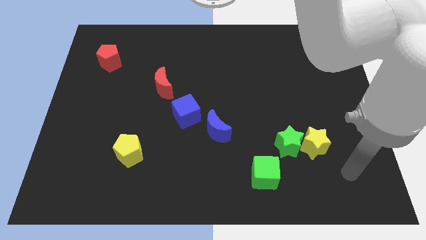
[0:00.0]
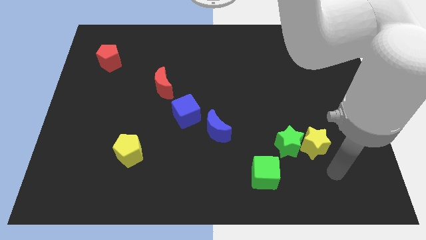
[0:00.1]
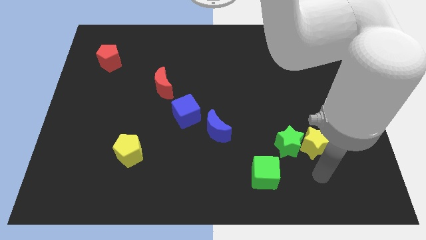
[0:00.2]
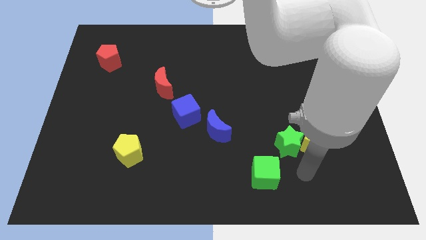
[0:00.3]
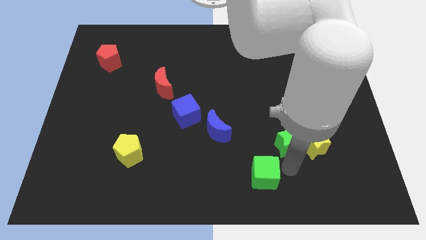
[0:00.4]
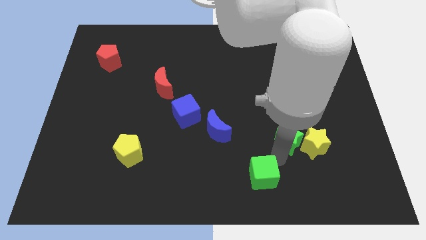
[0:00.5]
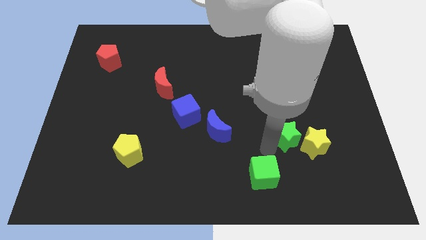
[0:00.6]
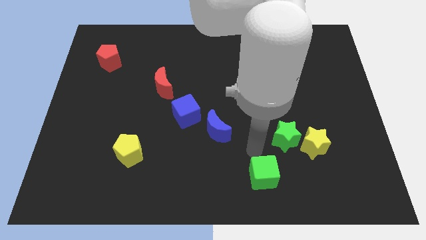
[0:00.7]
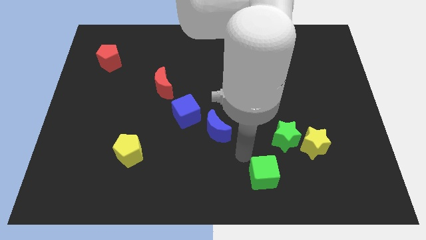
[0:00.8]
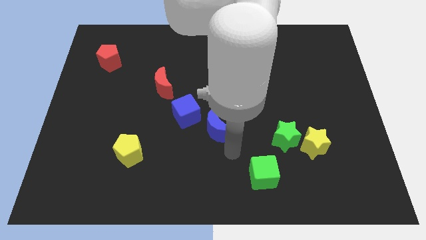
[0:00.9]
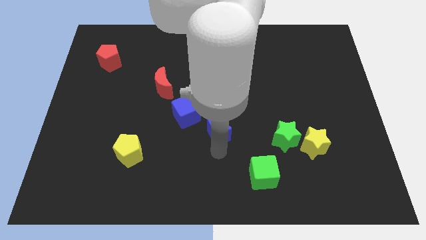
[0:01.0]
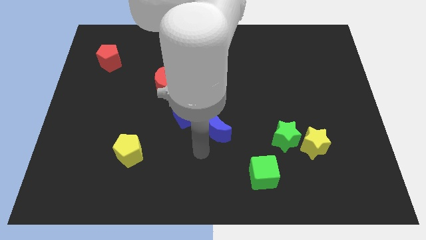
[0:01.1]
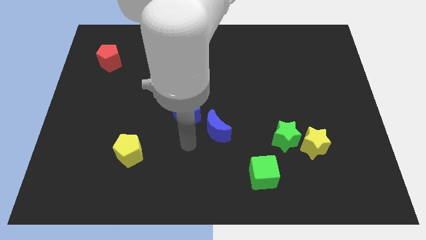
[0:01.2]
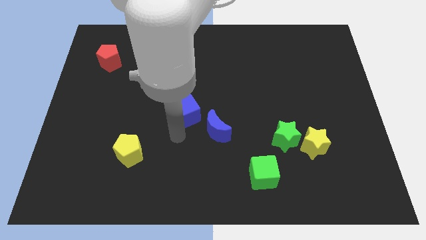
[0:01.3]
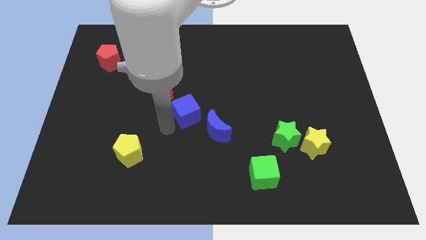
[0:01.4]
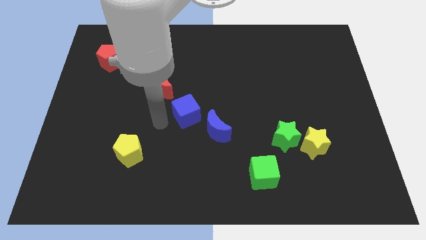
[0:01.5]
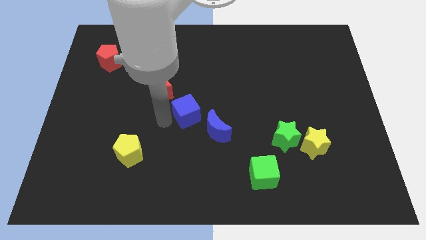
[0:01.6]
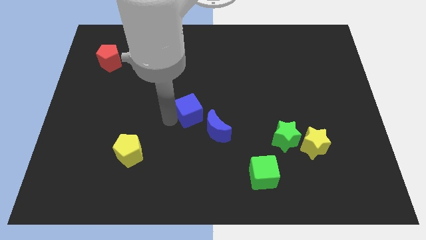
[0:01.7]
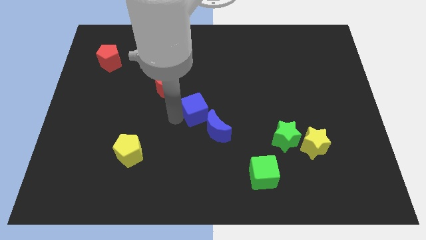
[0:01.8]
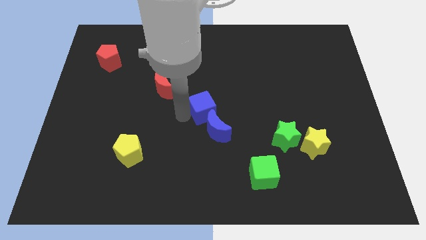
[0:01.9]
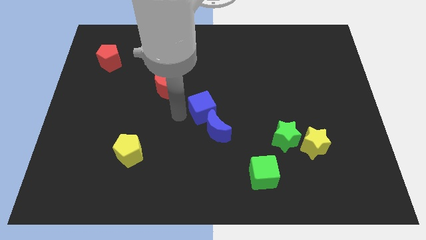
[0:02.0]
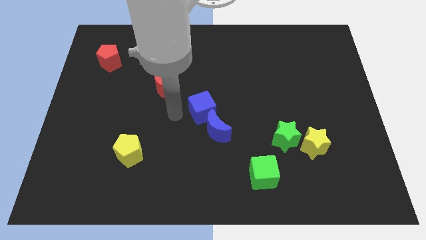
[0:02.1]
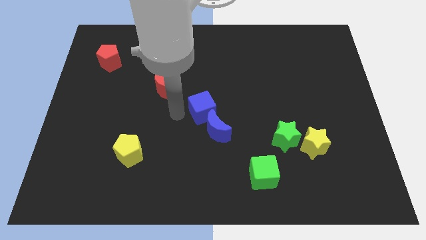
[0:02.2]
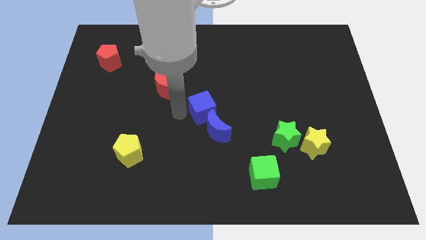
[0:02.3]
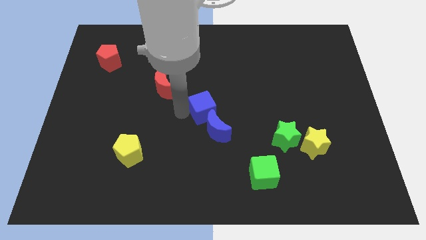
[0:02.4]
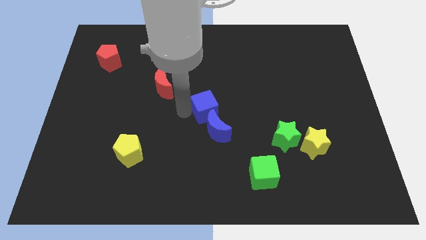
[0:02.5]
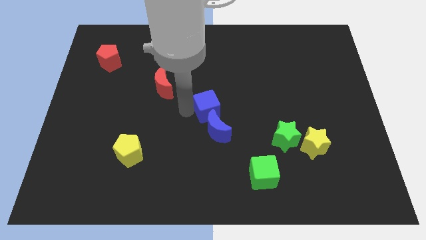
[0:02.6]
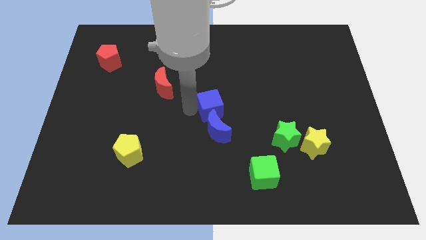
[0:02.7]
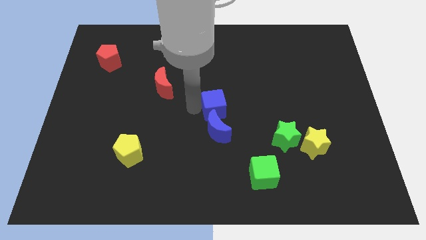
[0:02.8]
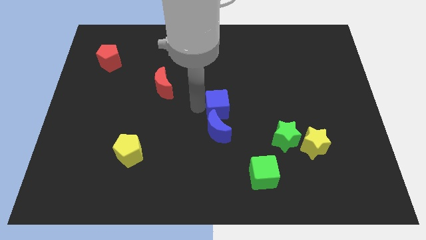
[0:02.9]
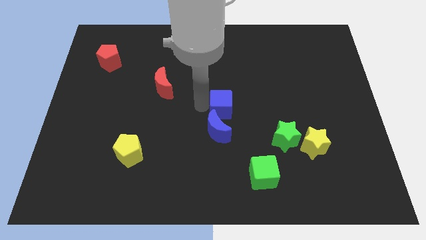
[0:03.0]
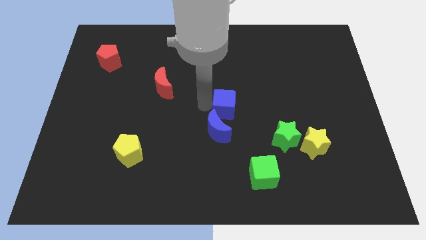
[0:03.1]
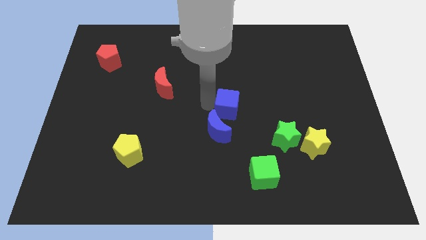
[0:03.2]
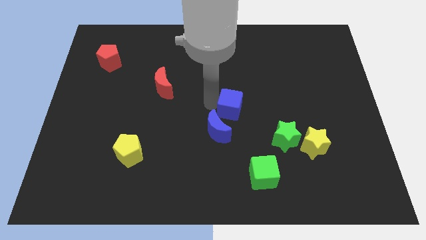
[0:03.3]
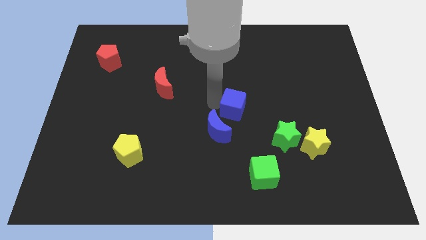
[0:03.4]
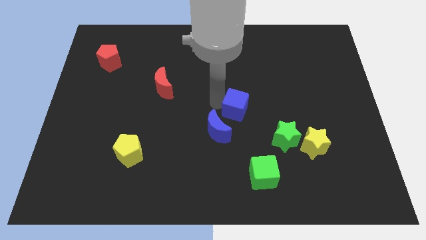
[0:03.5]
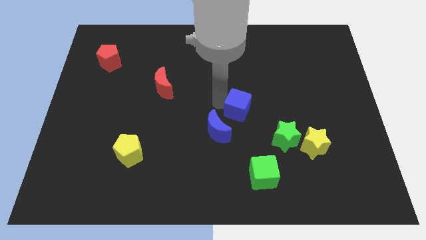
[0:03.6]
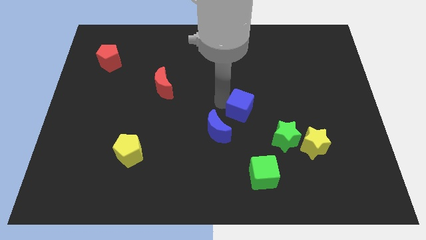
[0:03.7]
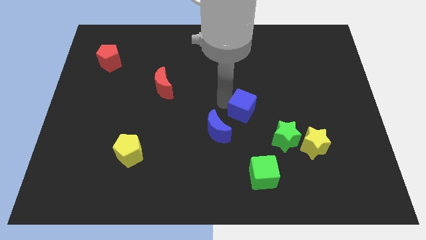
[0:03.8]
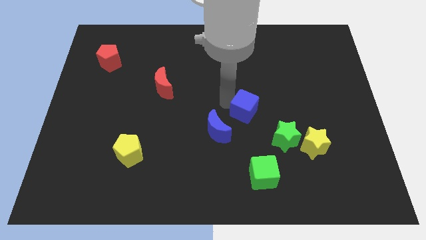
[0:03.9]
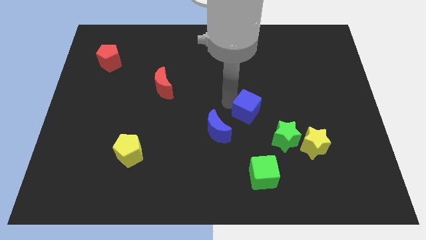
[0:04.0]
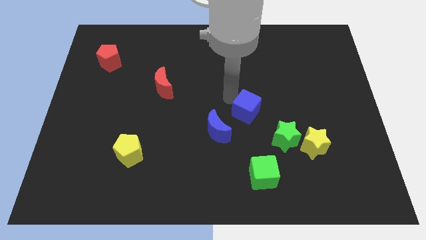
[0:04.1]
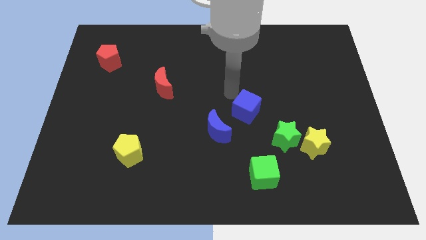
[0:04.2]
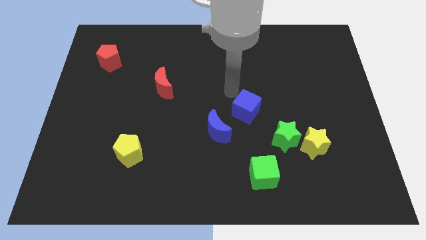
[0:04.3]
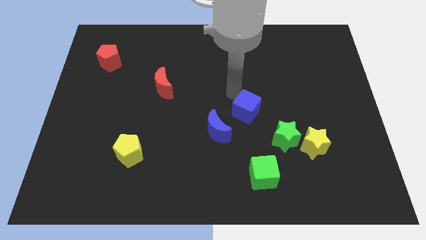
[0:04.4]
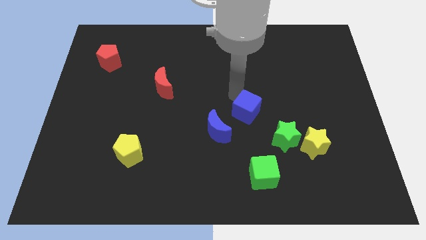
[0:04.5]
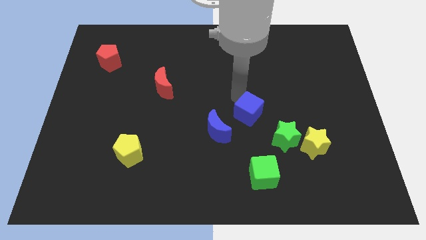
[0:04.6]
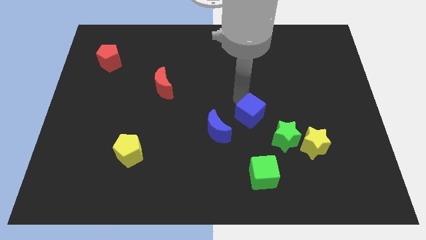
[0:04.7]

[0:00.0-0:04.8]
move the blue cube right of the blue moon

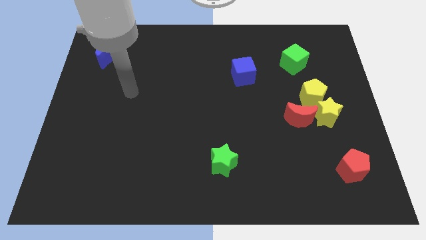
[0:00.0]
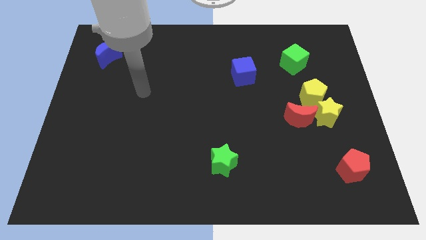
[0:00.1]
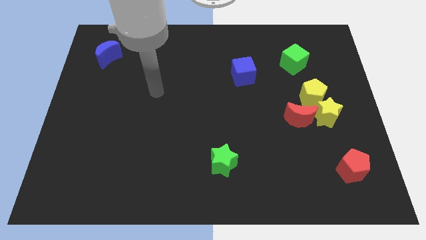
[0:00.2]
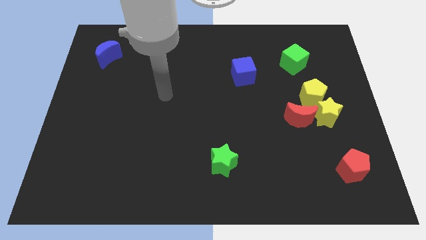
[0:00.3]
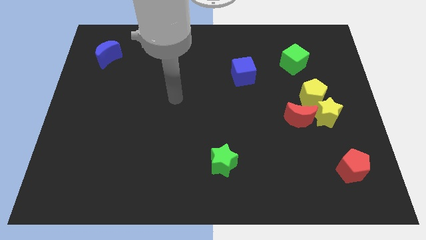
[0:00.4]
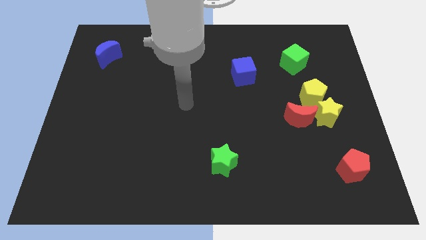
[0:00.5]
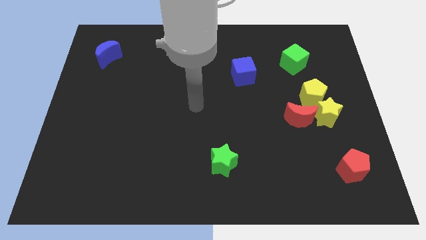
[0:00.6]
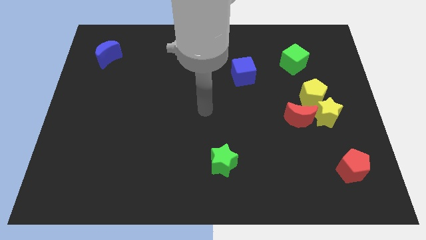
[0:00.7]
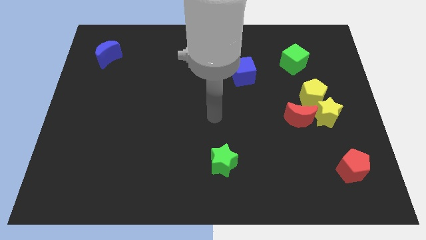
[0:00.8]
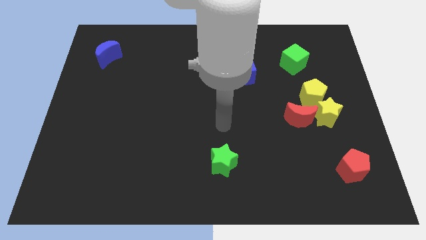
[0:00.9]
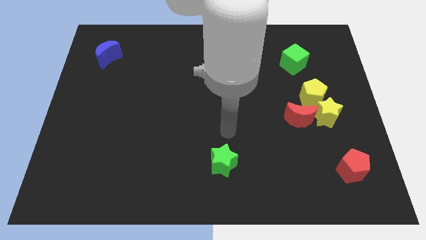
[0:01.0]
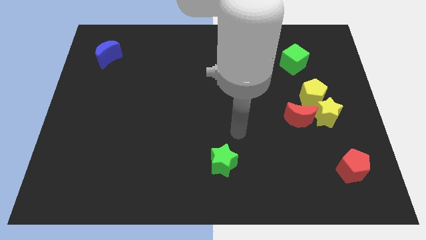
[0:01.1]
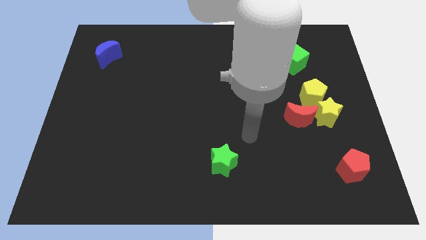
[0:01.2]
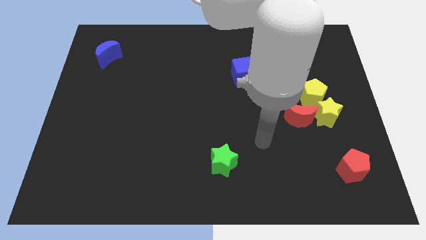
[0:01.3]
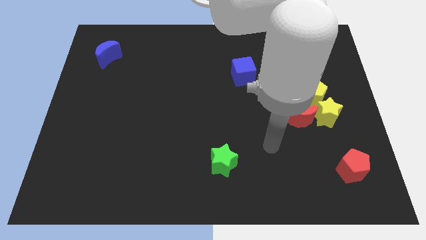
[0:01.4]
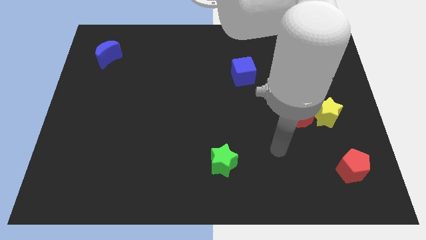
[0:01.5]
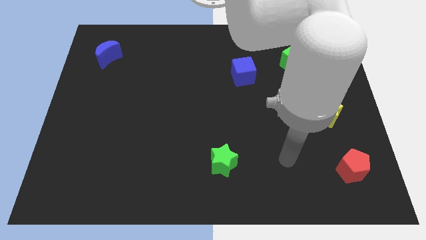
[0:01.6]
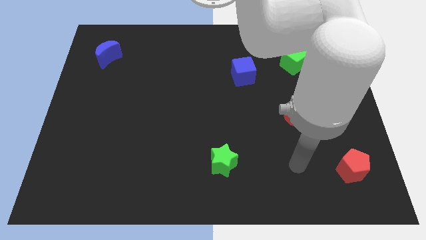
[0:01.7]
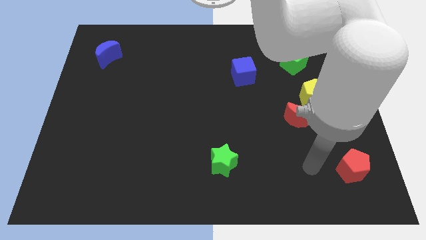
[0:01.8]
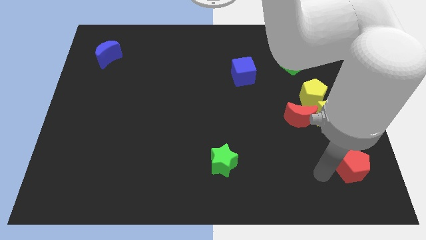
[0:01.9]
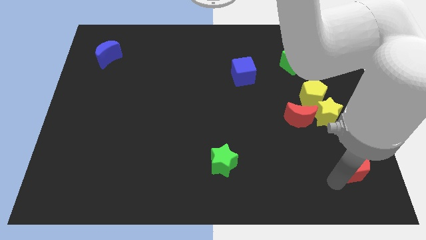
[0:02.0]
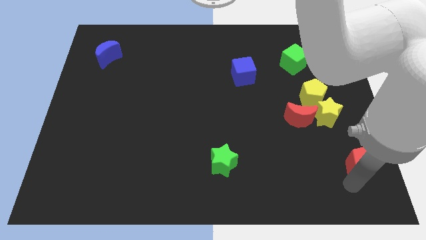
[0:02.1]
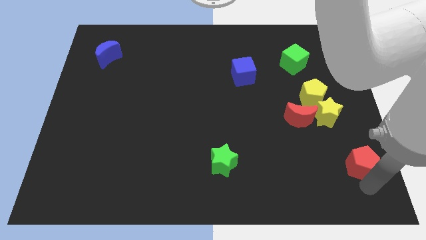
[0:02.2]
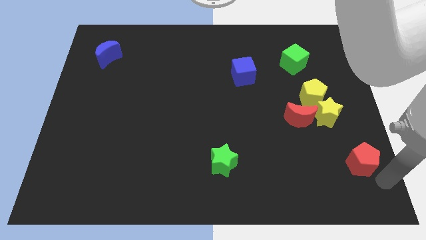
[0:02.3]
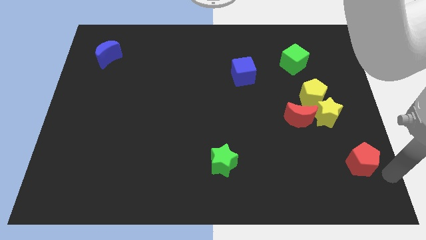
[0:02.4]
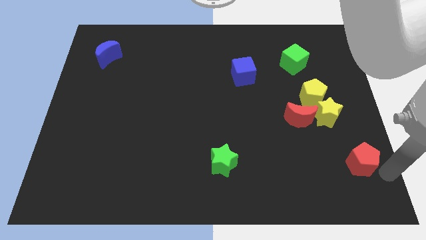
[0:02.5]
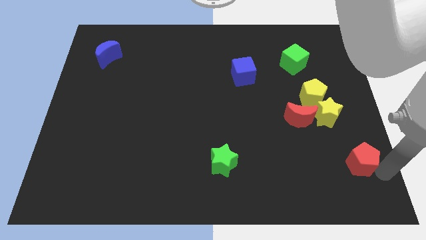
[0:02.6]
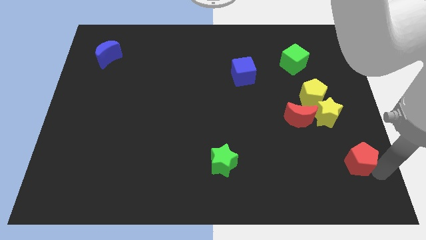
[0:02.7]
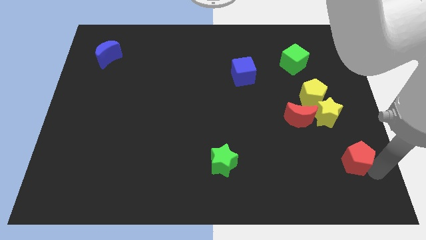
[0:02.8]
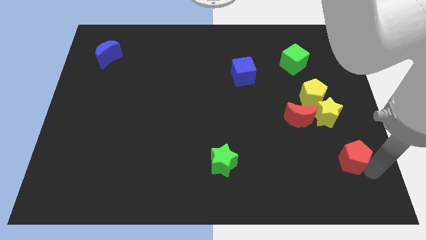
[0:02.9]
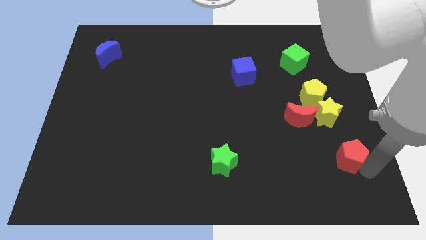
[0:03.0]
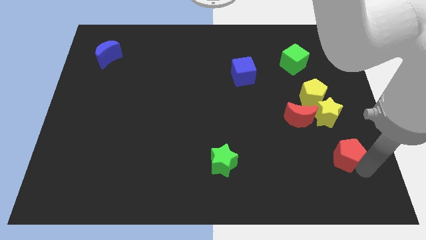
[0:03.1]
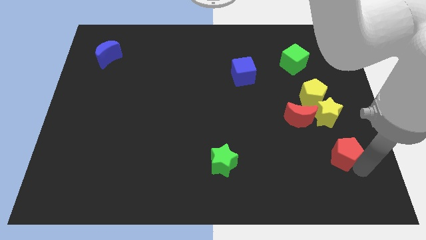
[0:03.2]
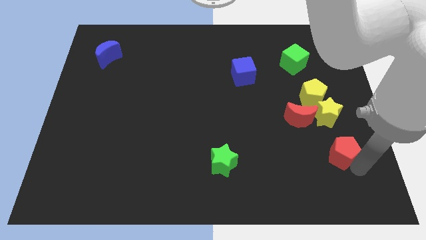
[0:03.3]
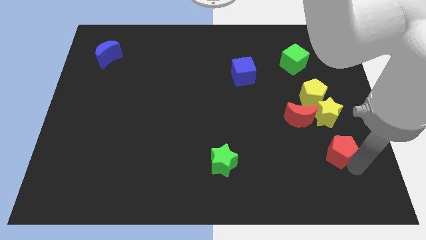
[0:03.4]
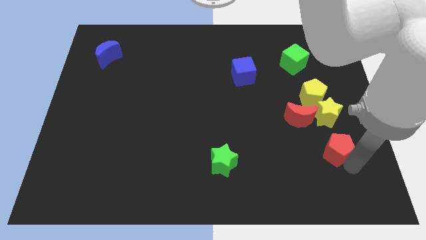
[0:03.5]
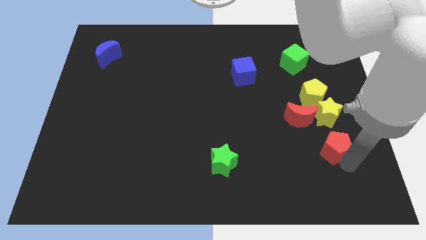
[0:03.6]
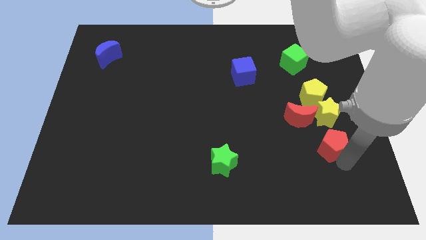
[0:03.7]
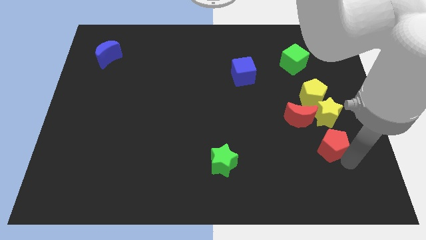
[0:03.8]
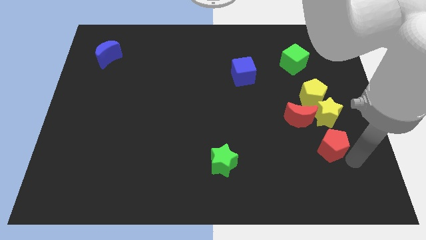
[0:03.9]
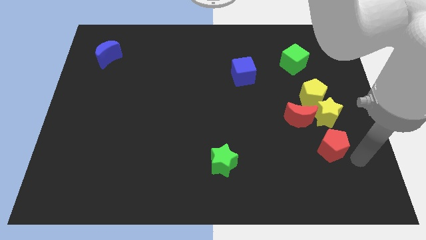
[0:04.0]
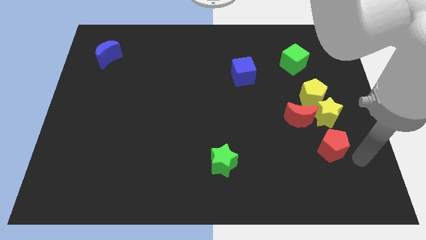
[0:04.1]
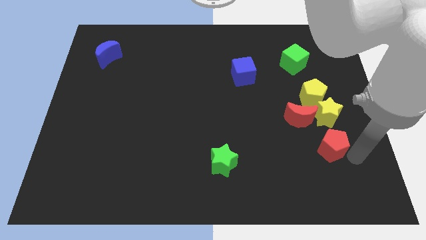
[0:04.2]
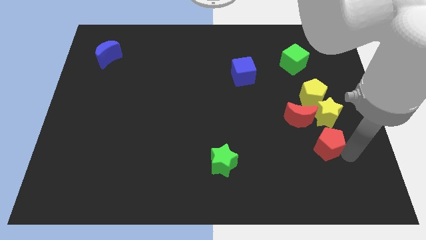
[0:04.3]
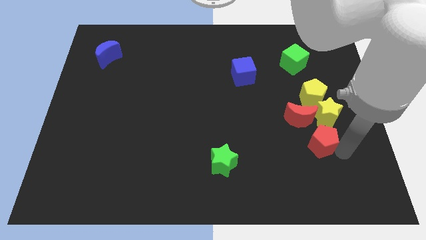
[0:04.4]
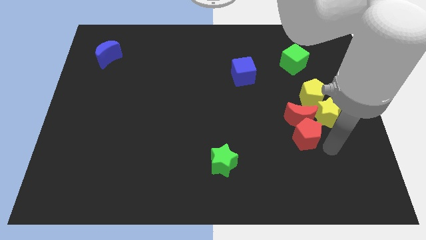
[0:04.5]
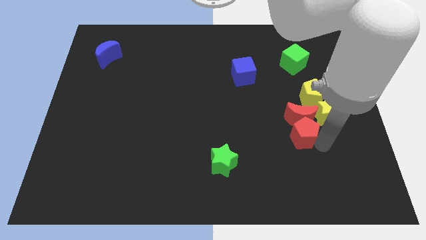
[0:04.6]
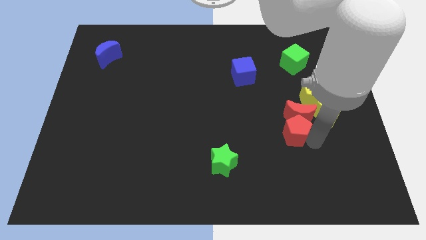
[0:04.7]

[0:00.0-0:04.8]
put the red pentagon left of the yellow star
